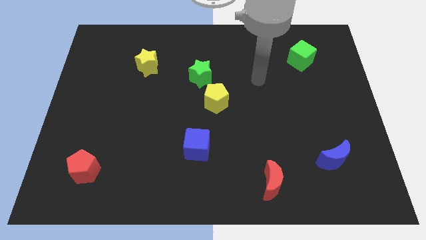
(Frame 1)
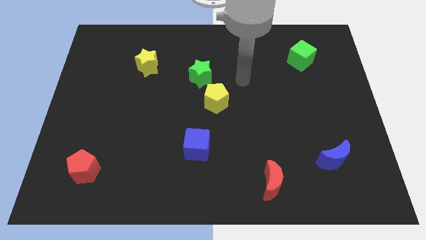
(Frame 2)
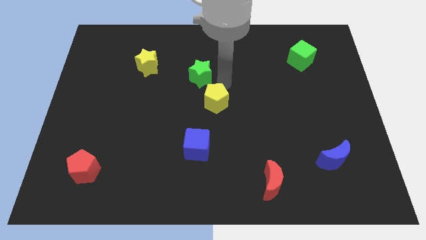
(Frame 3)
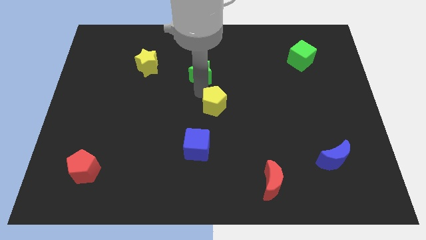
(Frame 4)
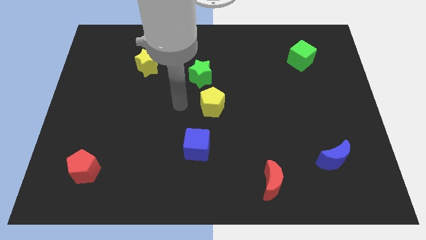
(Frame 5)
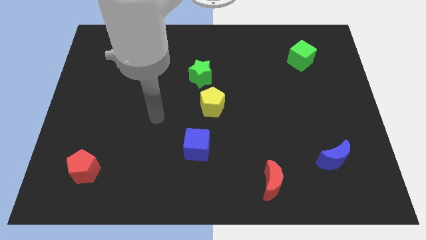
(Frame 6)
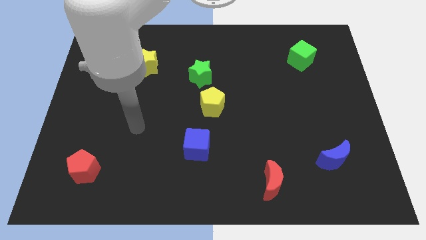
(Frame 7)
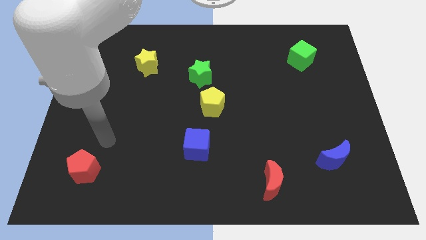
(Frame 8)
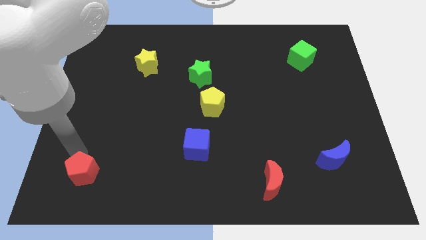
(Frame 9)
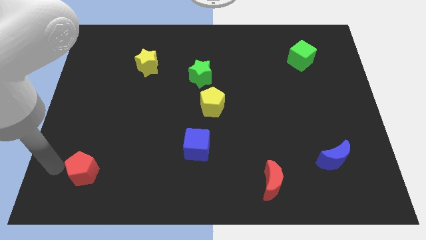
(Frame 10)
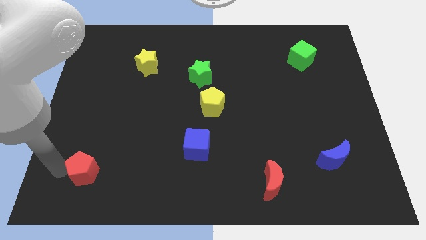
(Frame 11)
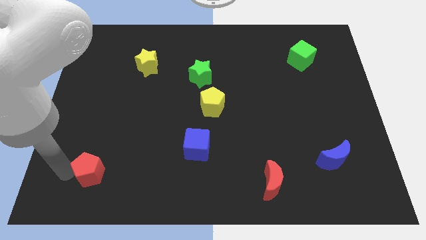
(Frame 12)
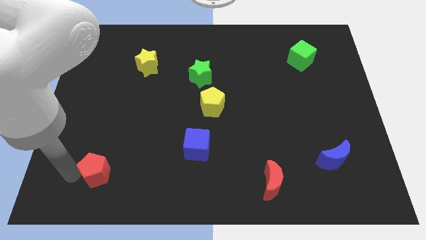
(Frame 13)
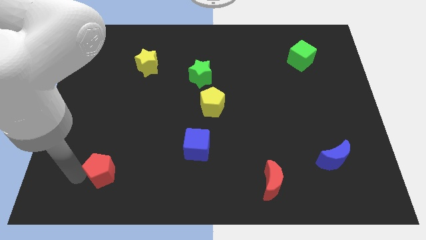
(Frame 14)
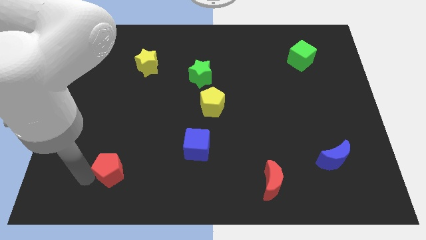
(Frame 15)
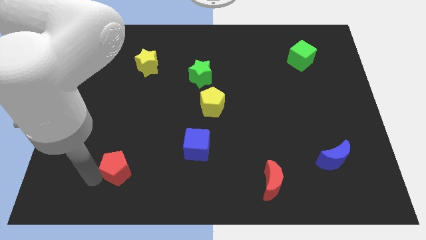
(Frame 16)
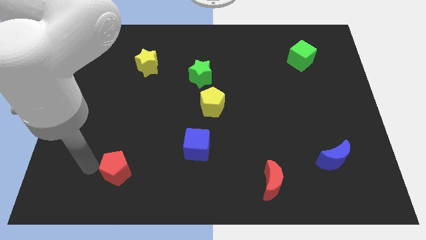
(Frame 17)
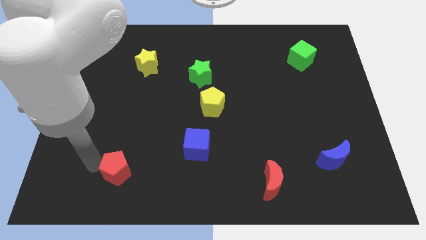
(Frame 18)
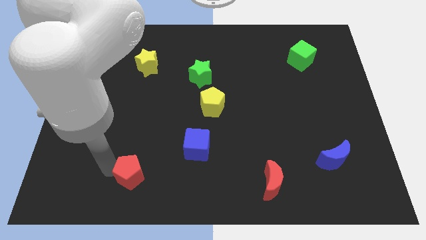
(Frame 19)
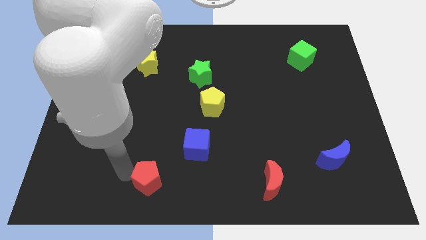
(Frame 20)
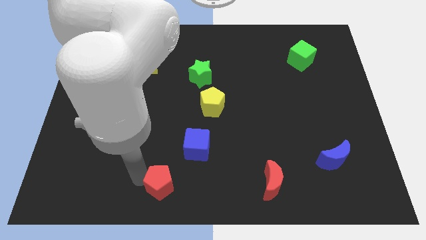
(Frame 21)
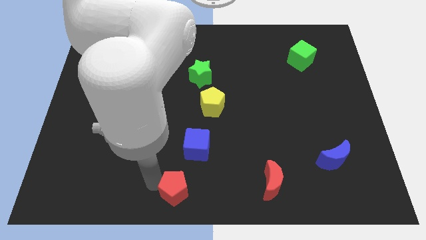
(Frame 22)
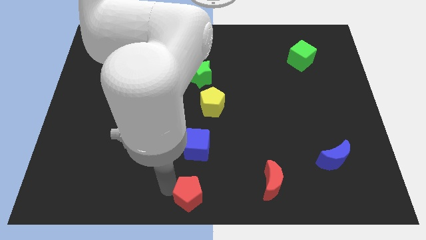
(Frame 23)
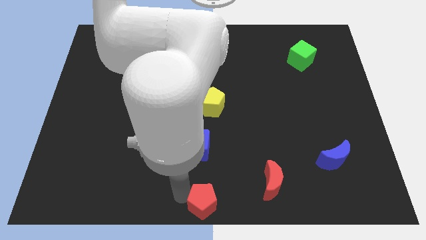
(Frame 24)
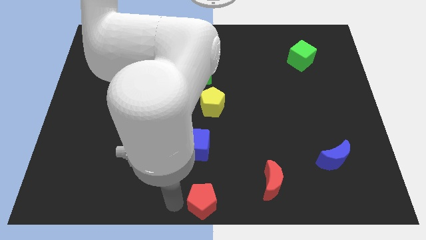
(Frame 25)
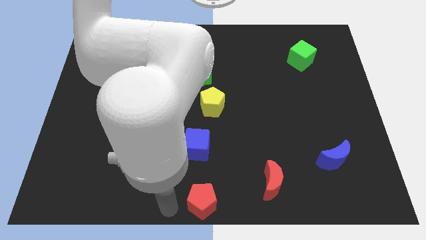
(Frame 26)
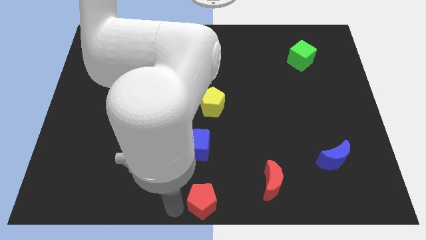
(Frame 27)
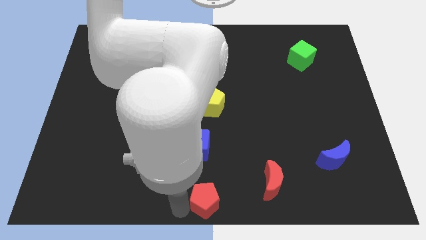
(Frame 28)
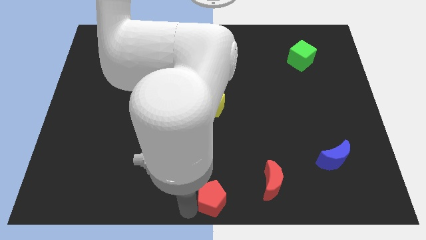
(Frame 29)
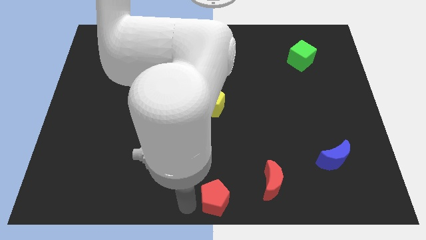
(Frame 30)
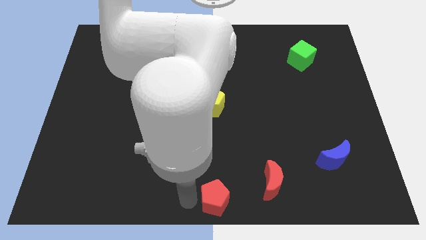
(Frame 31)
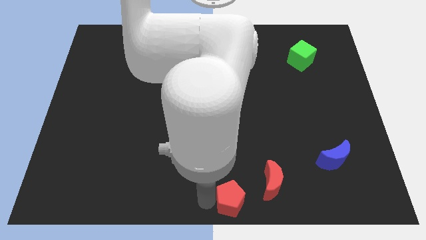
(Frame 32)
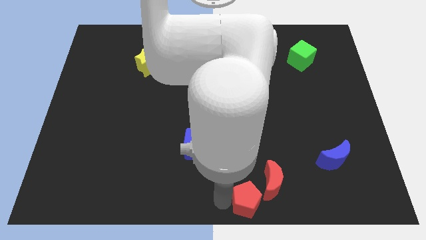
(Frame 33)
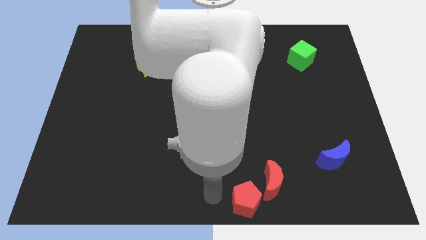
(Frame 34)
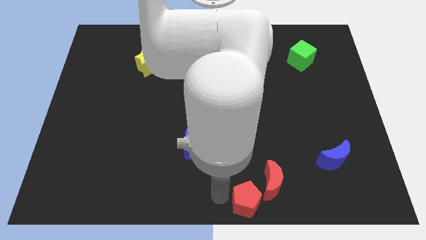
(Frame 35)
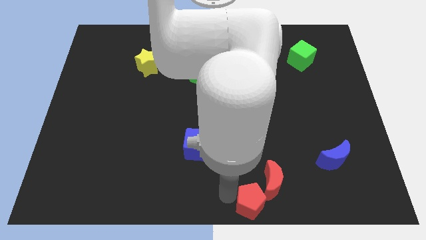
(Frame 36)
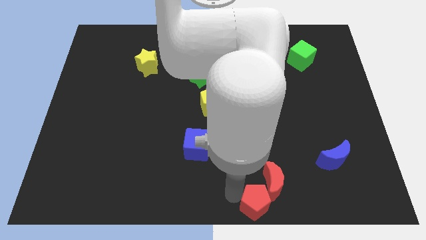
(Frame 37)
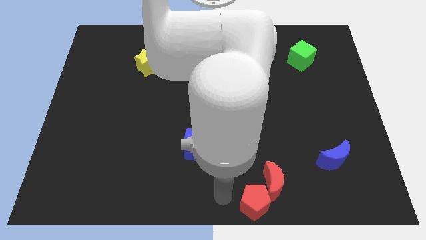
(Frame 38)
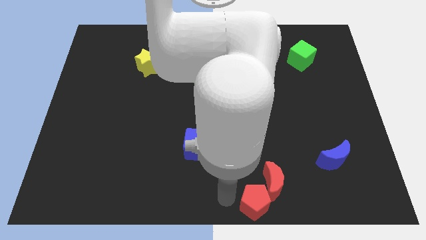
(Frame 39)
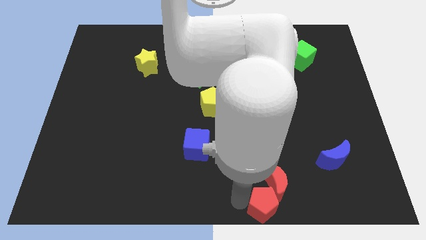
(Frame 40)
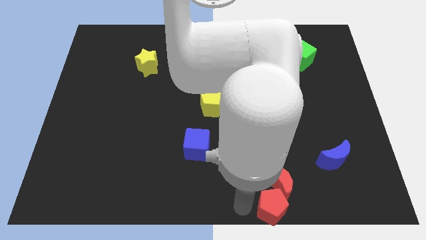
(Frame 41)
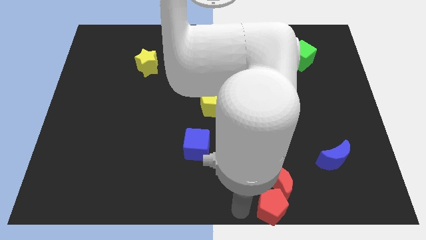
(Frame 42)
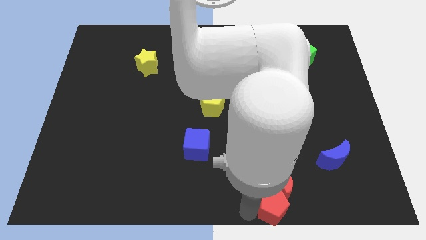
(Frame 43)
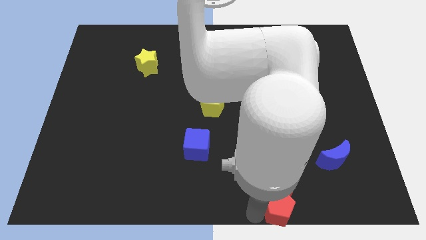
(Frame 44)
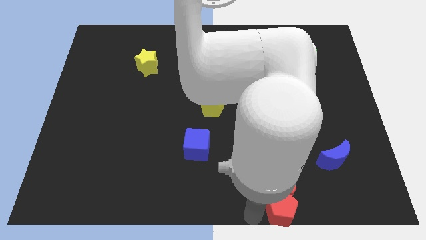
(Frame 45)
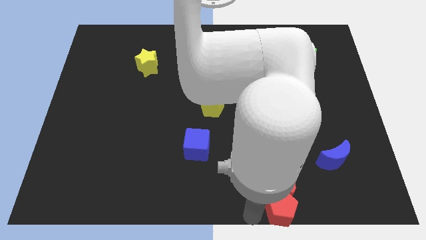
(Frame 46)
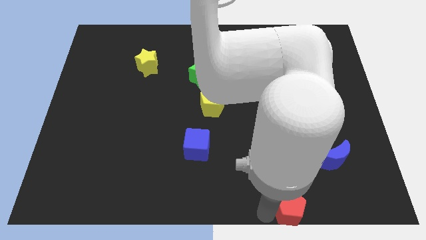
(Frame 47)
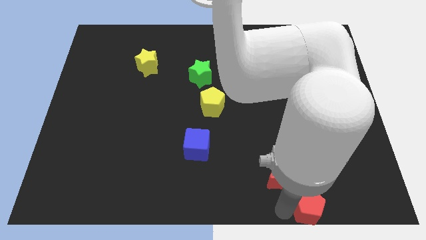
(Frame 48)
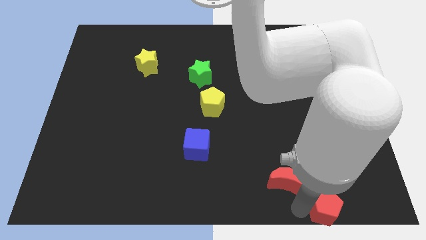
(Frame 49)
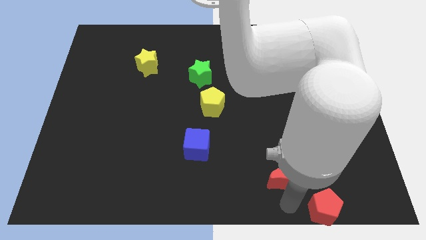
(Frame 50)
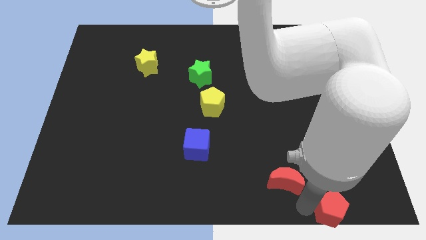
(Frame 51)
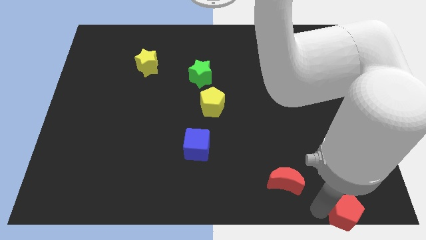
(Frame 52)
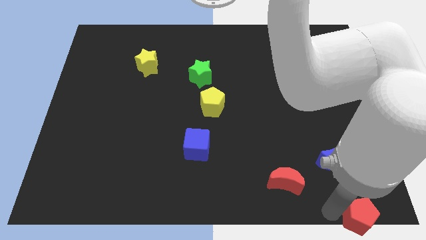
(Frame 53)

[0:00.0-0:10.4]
push the red pentagon to the bottom right of the board

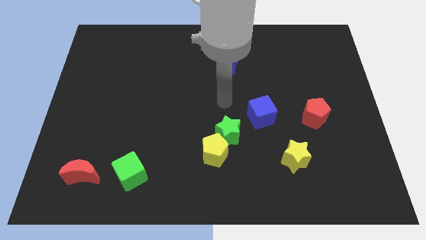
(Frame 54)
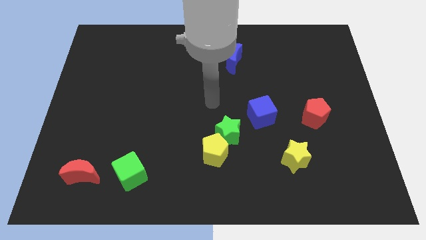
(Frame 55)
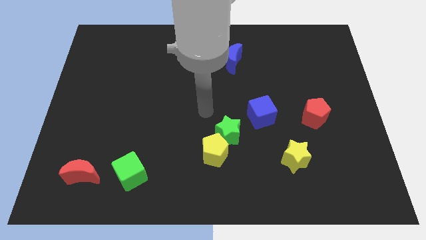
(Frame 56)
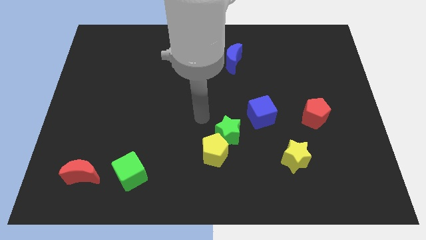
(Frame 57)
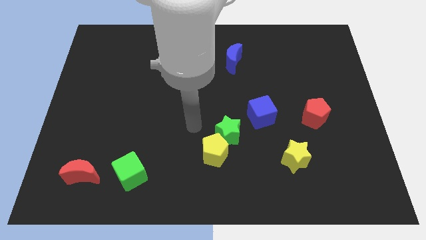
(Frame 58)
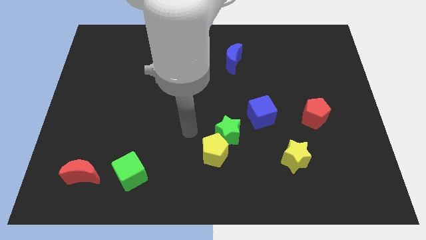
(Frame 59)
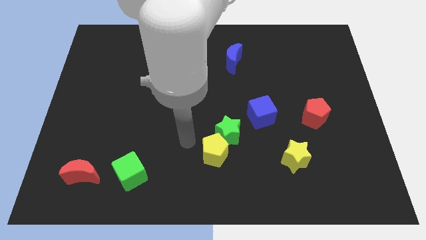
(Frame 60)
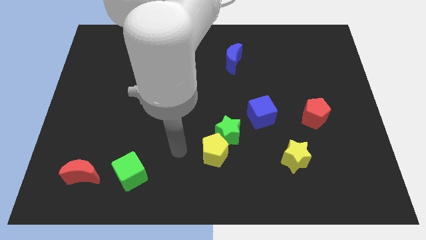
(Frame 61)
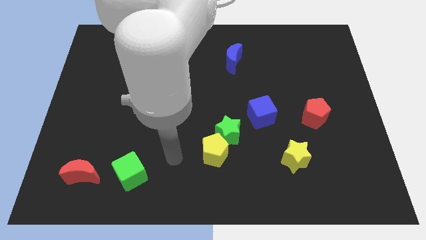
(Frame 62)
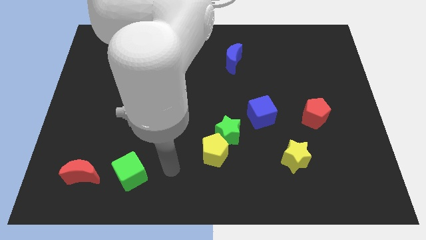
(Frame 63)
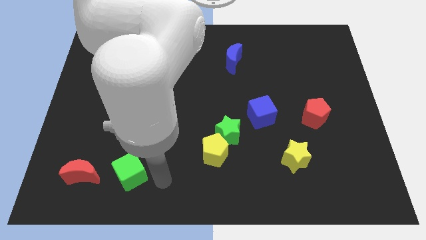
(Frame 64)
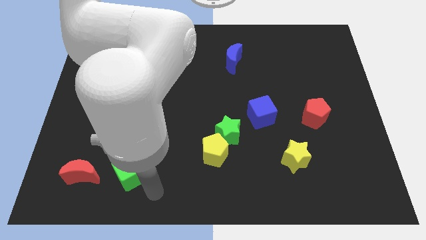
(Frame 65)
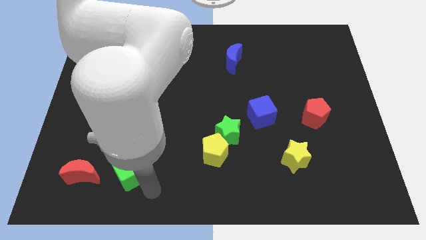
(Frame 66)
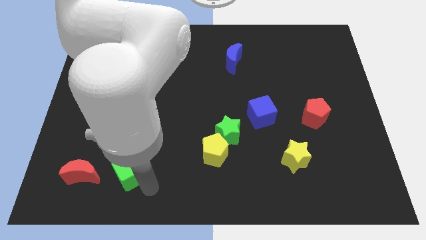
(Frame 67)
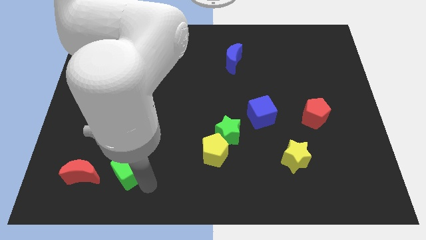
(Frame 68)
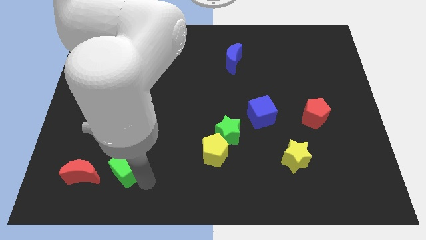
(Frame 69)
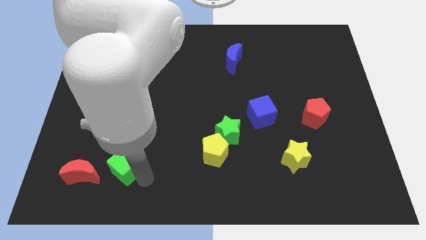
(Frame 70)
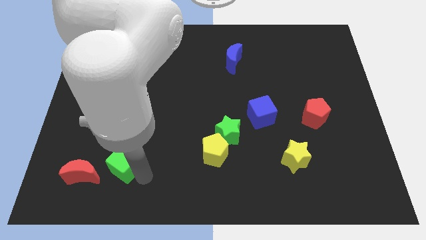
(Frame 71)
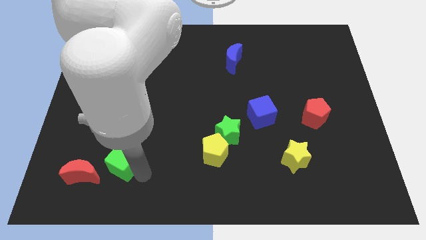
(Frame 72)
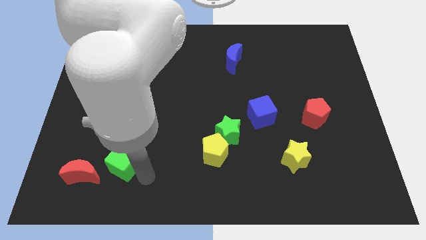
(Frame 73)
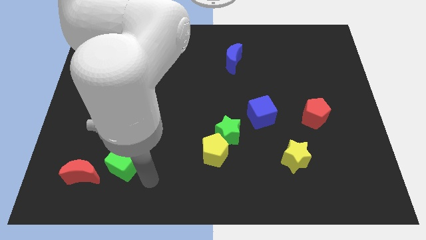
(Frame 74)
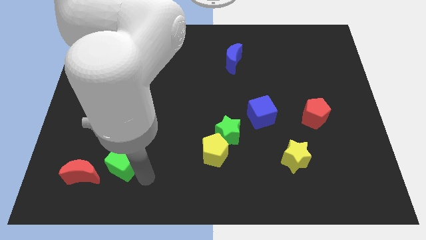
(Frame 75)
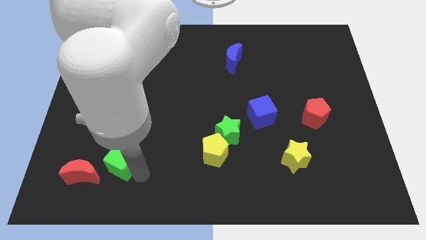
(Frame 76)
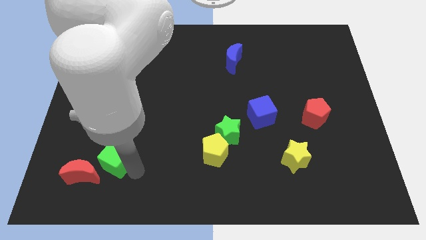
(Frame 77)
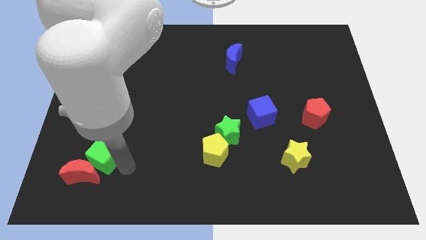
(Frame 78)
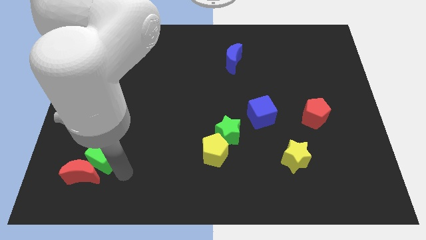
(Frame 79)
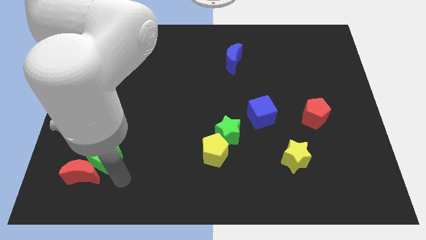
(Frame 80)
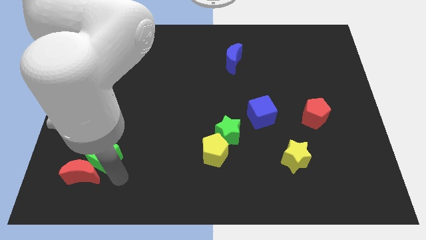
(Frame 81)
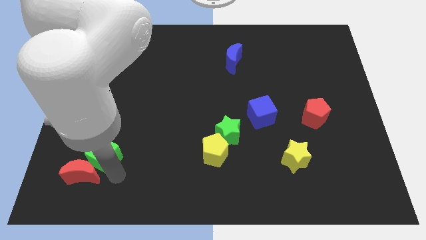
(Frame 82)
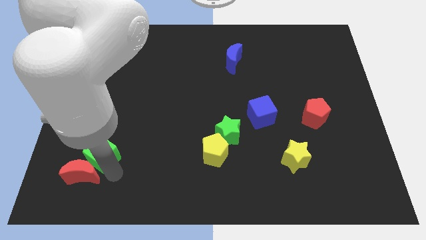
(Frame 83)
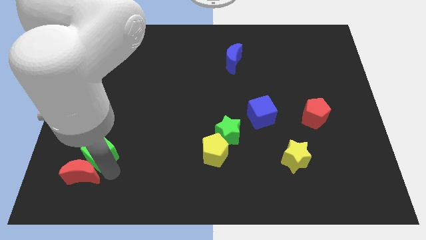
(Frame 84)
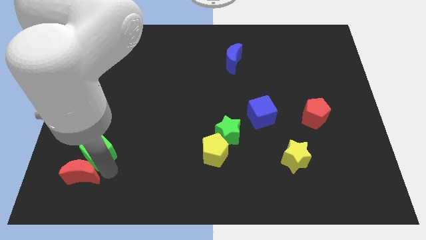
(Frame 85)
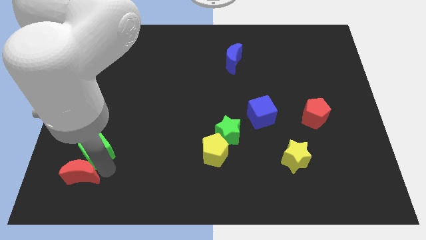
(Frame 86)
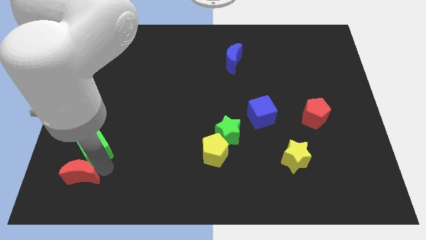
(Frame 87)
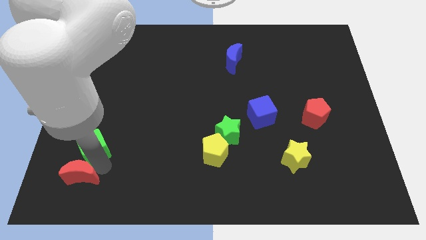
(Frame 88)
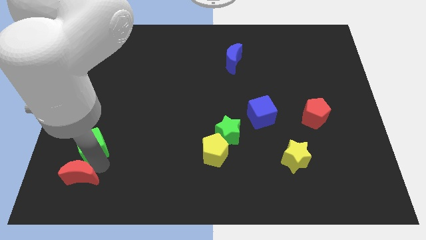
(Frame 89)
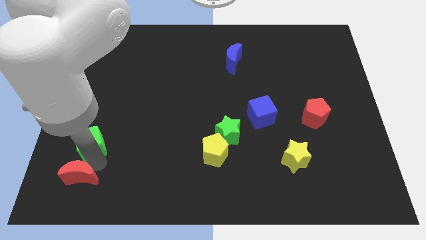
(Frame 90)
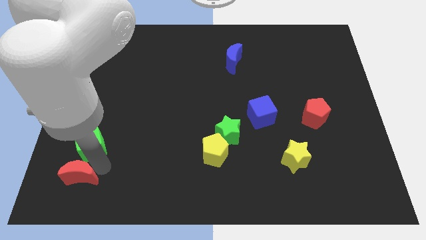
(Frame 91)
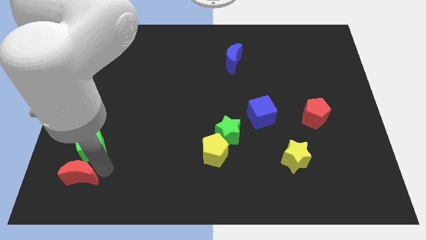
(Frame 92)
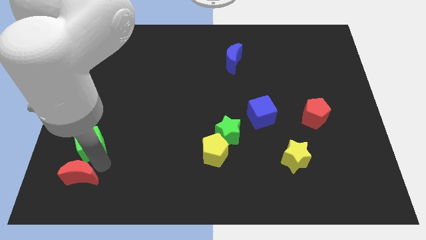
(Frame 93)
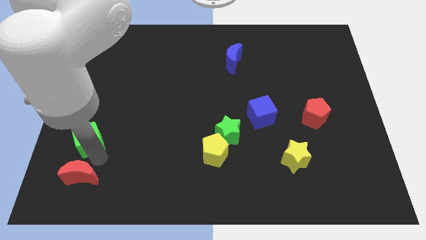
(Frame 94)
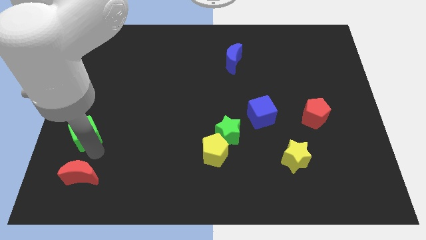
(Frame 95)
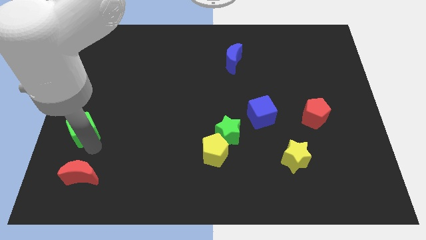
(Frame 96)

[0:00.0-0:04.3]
slide the green cube to the left side
